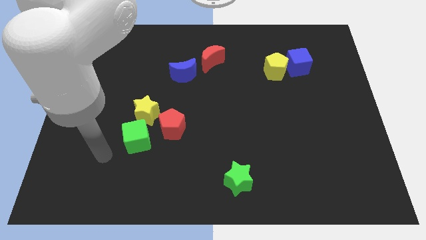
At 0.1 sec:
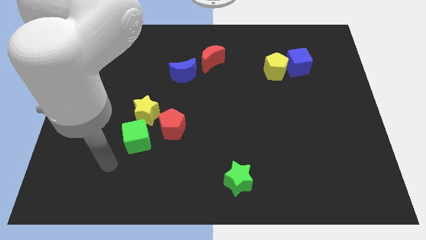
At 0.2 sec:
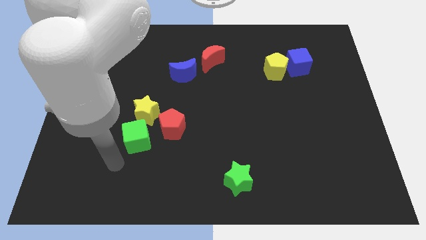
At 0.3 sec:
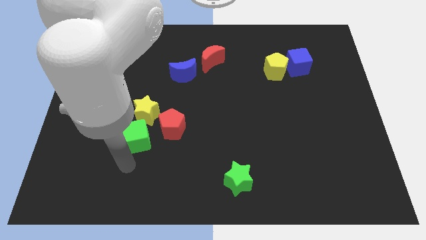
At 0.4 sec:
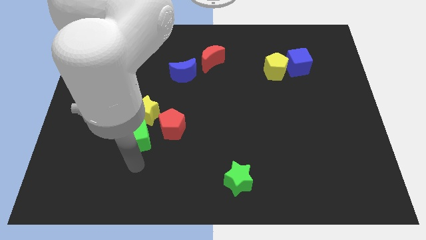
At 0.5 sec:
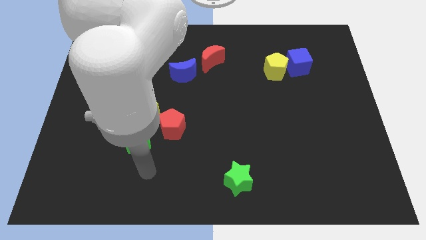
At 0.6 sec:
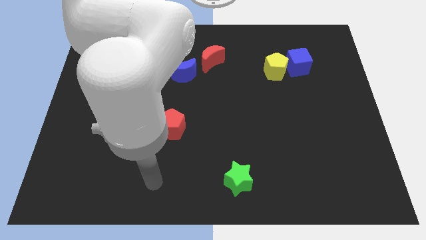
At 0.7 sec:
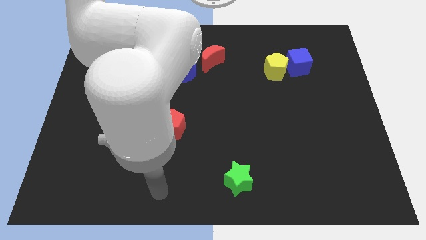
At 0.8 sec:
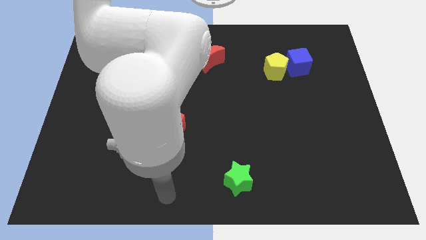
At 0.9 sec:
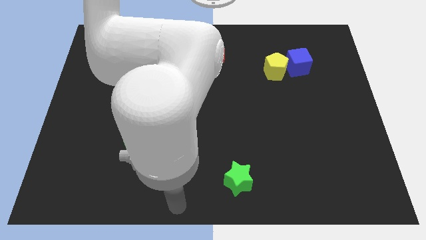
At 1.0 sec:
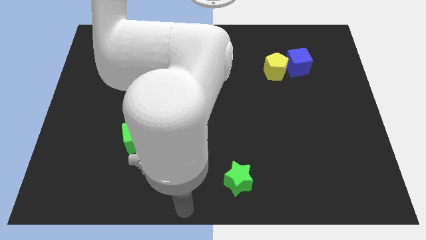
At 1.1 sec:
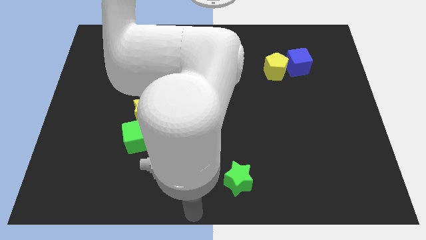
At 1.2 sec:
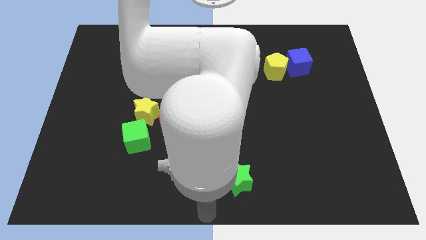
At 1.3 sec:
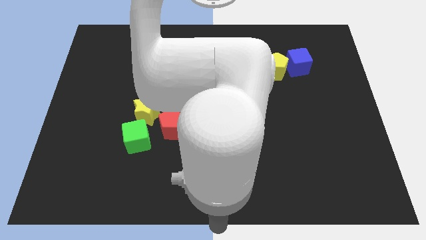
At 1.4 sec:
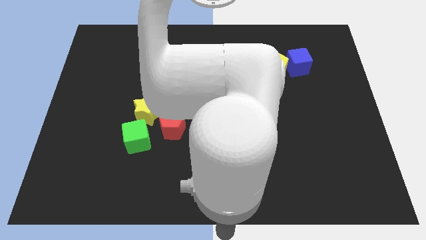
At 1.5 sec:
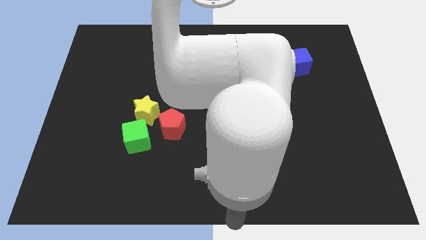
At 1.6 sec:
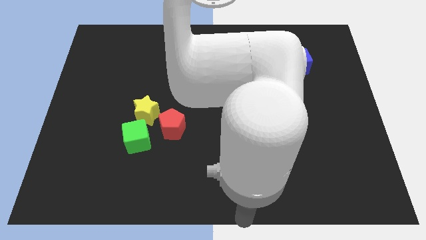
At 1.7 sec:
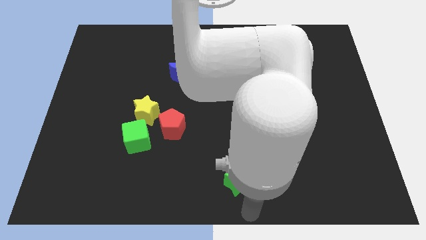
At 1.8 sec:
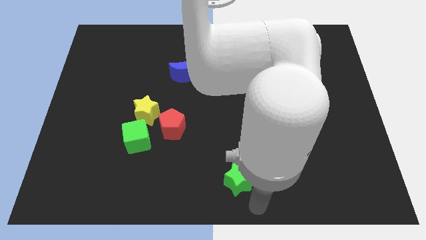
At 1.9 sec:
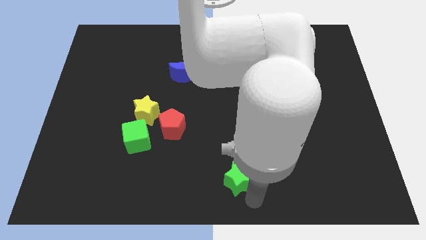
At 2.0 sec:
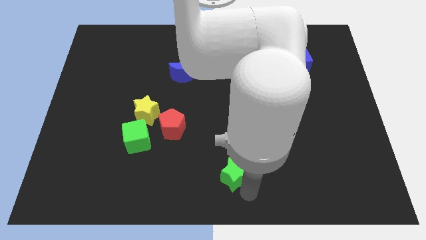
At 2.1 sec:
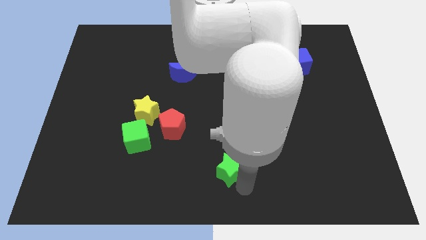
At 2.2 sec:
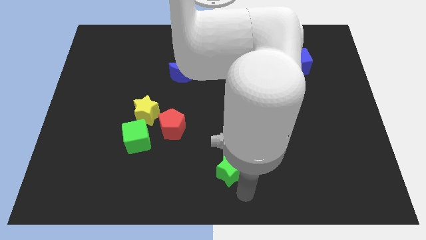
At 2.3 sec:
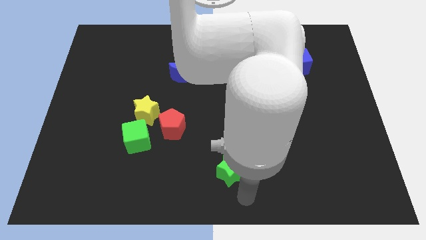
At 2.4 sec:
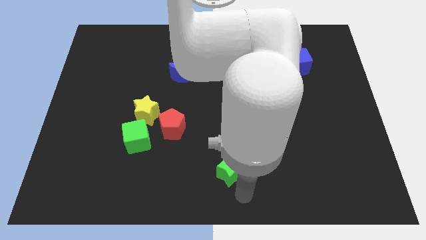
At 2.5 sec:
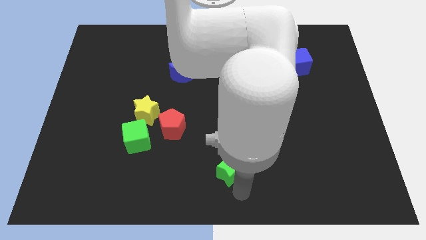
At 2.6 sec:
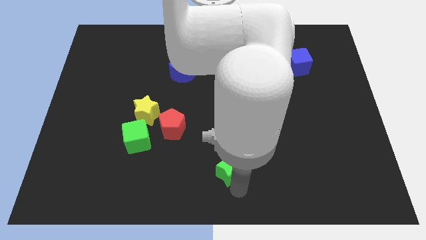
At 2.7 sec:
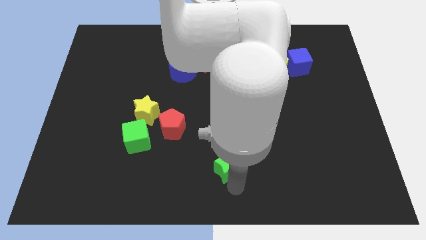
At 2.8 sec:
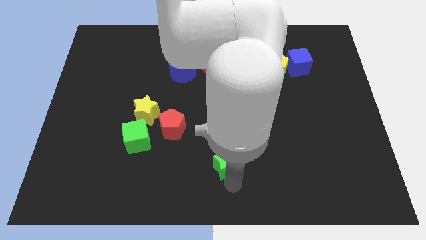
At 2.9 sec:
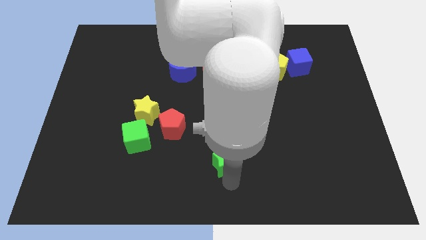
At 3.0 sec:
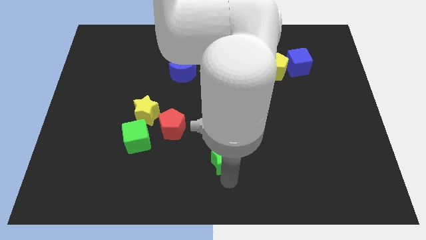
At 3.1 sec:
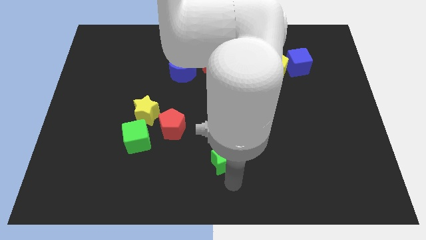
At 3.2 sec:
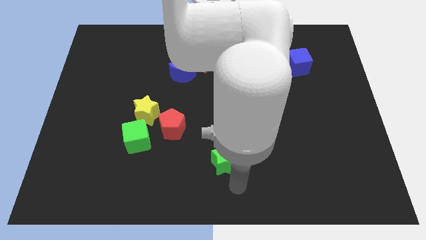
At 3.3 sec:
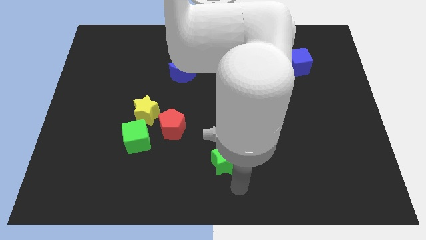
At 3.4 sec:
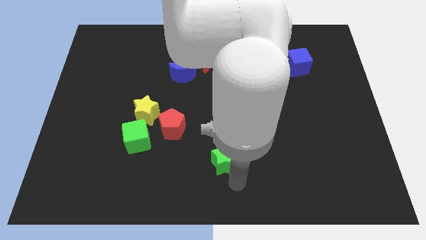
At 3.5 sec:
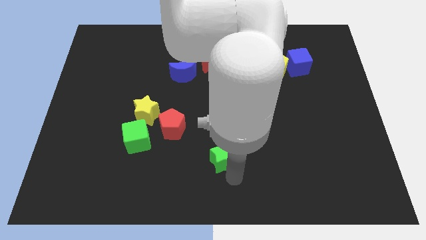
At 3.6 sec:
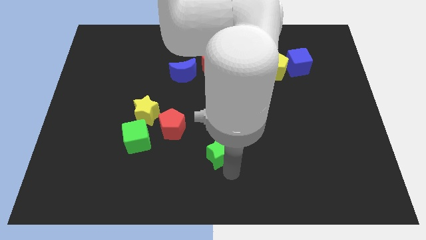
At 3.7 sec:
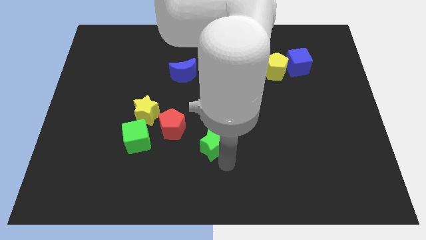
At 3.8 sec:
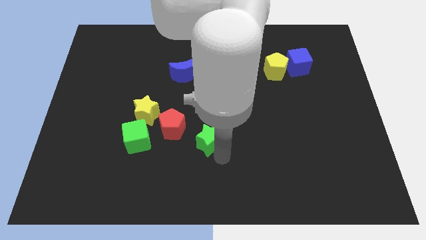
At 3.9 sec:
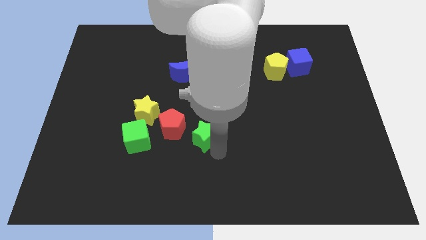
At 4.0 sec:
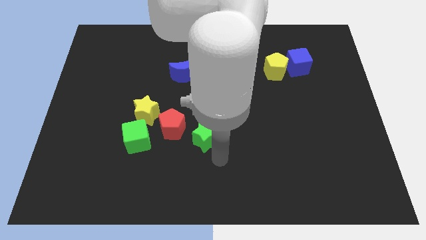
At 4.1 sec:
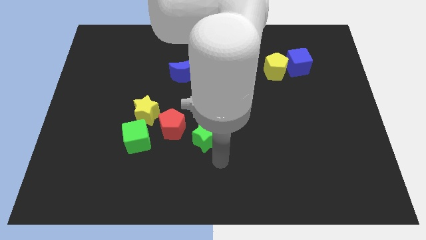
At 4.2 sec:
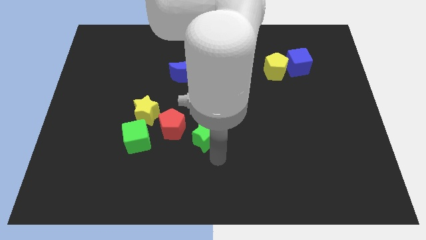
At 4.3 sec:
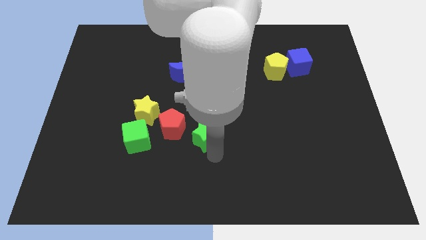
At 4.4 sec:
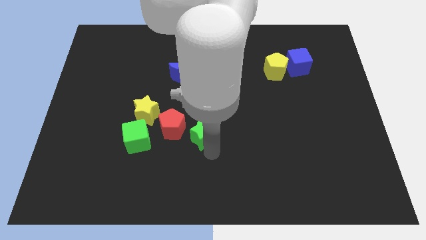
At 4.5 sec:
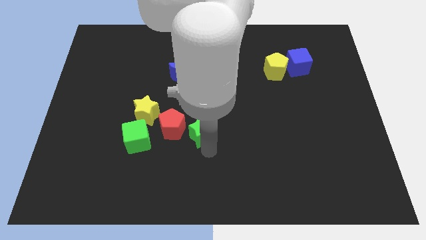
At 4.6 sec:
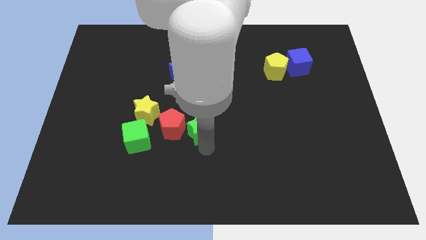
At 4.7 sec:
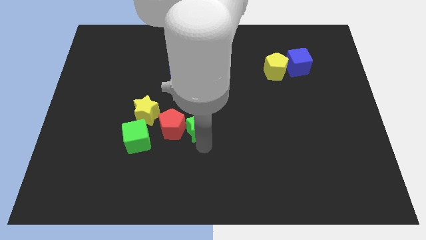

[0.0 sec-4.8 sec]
slide the green star to the right side of the yellow star

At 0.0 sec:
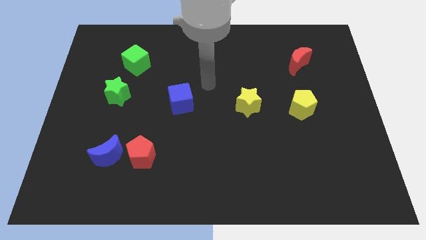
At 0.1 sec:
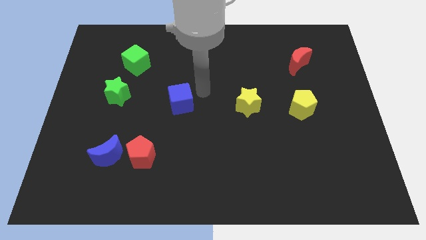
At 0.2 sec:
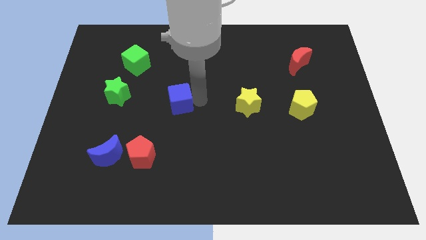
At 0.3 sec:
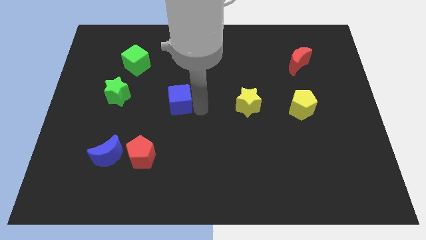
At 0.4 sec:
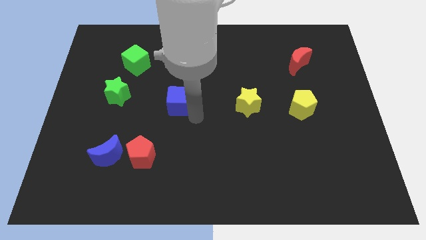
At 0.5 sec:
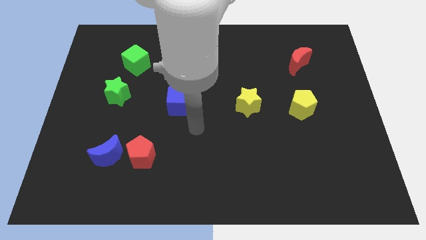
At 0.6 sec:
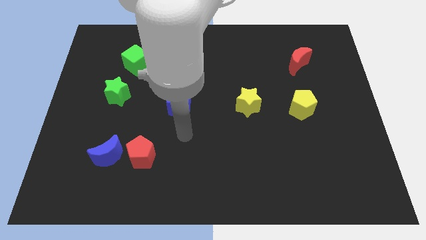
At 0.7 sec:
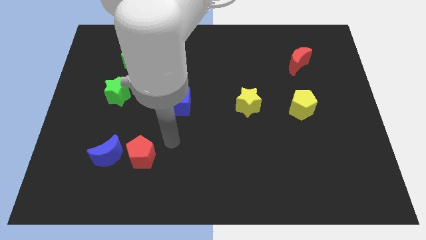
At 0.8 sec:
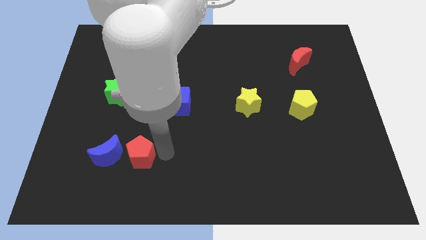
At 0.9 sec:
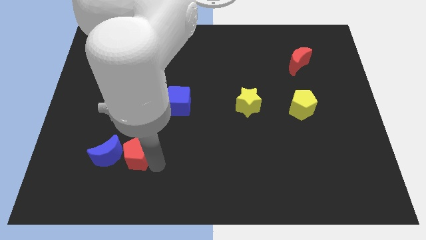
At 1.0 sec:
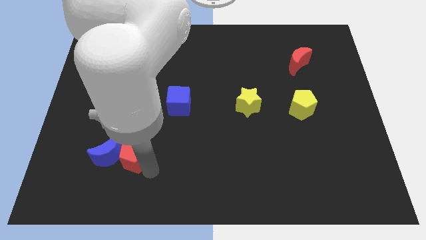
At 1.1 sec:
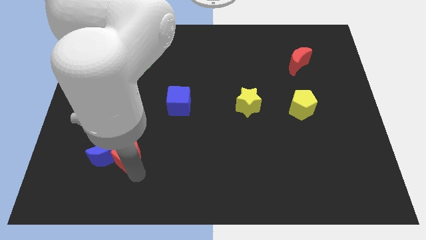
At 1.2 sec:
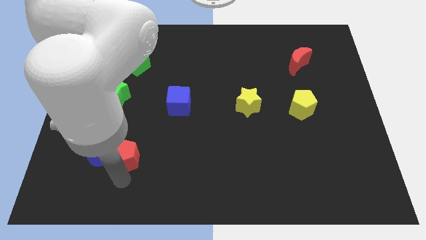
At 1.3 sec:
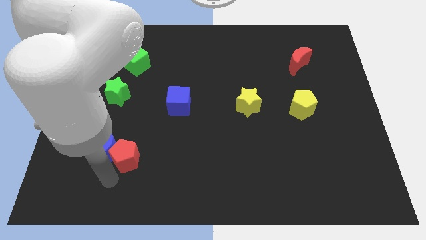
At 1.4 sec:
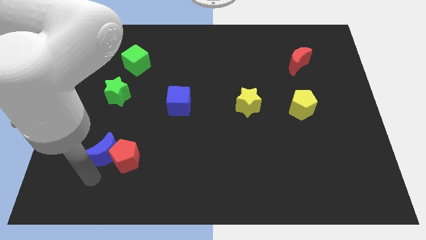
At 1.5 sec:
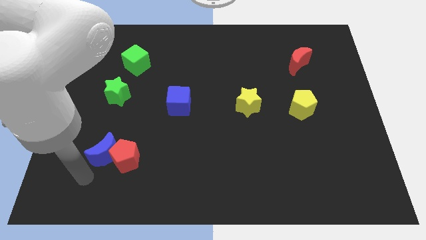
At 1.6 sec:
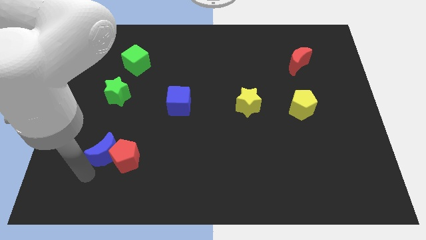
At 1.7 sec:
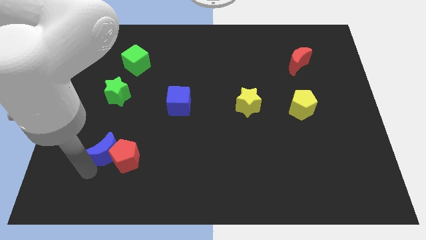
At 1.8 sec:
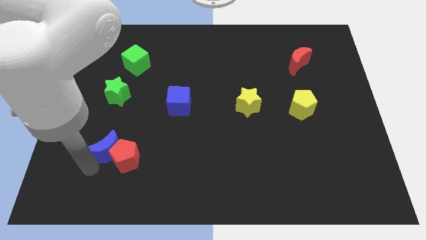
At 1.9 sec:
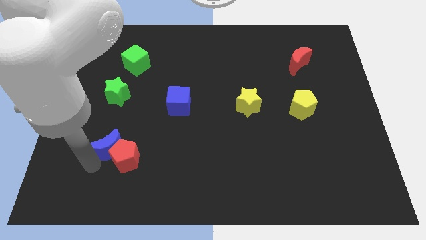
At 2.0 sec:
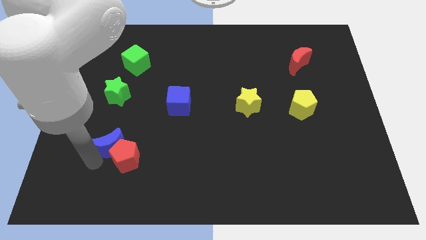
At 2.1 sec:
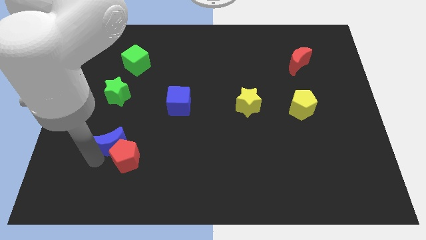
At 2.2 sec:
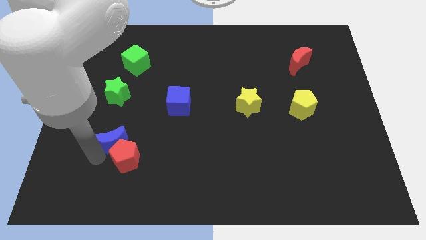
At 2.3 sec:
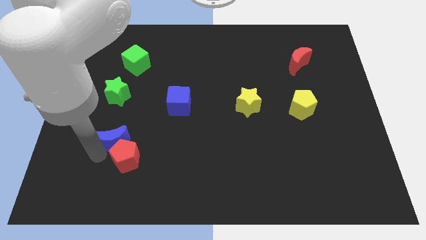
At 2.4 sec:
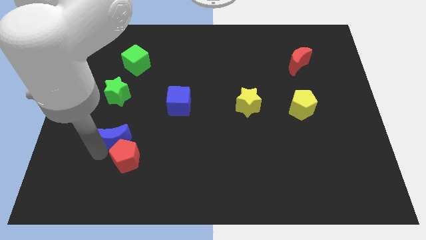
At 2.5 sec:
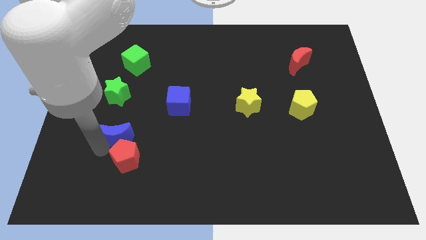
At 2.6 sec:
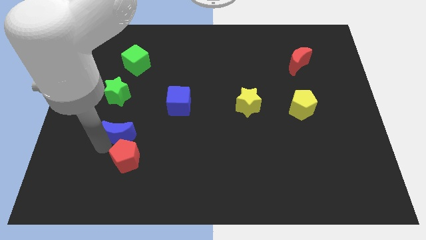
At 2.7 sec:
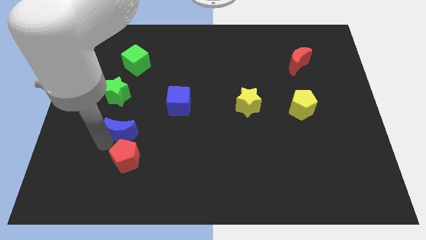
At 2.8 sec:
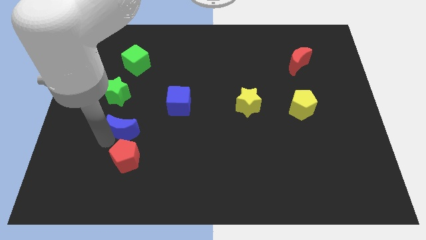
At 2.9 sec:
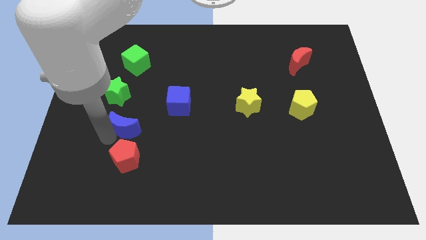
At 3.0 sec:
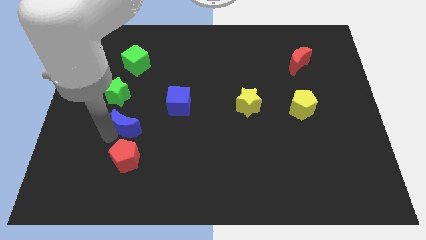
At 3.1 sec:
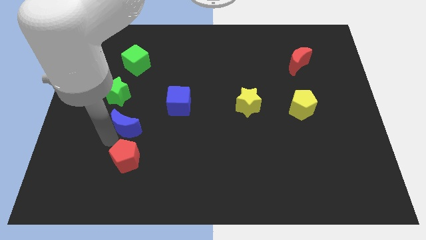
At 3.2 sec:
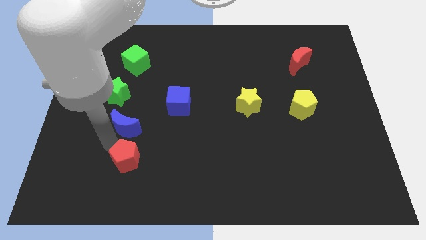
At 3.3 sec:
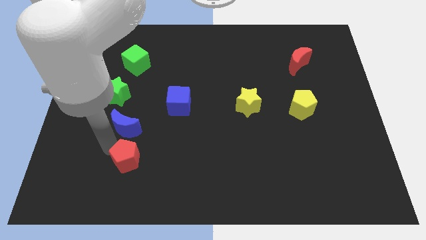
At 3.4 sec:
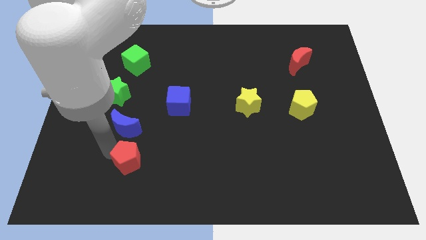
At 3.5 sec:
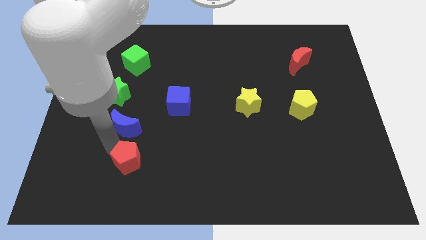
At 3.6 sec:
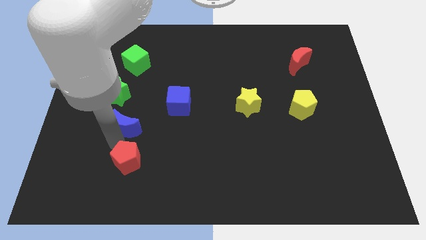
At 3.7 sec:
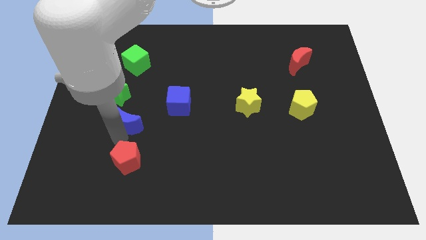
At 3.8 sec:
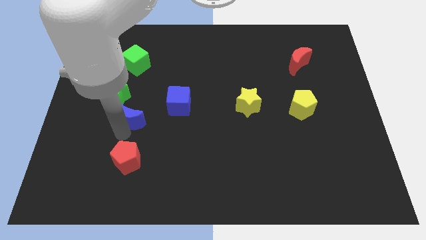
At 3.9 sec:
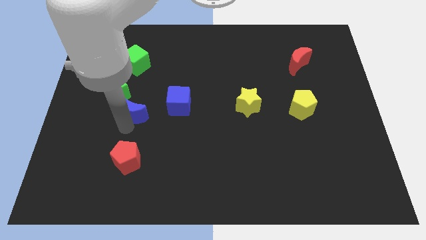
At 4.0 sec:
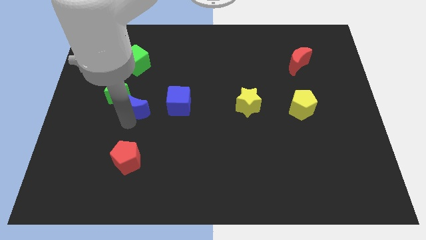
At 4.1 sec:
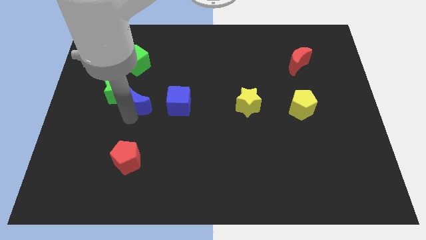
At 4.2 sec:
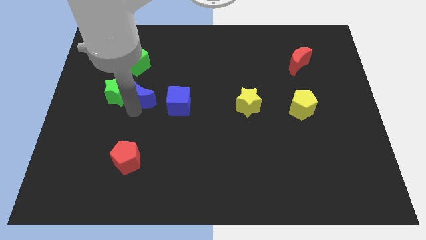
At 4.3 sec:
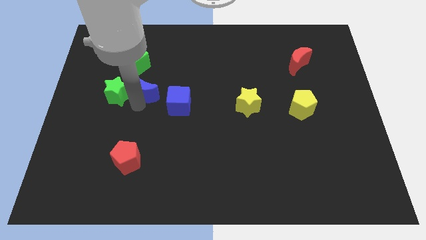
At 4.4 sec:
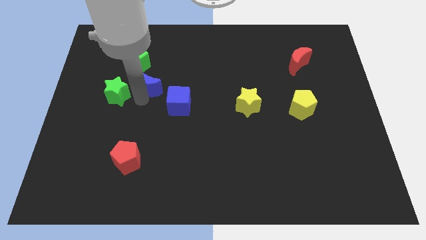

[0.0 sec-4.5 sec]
put the blue moon diagonally down and to the right of the green cube
